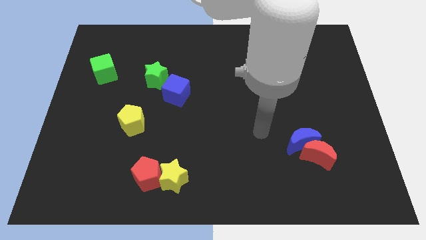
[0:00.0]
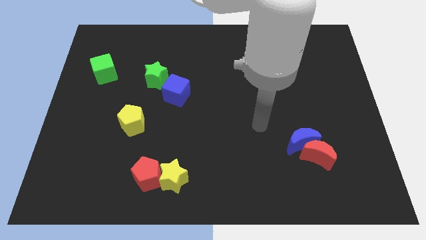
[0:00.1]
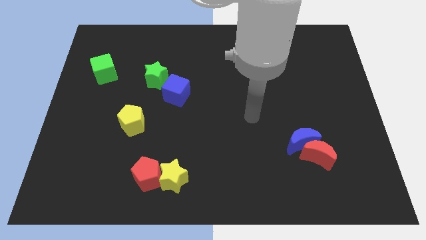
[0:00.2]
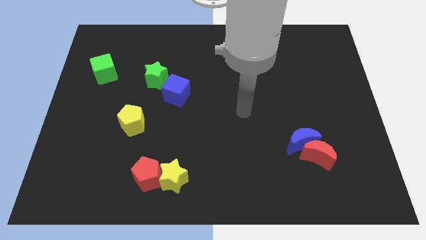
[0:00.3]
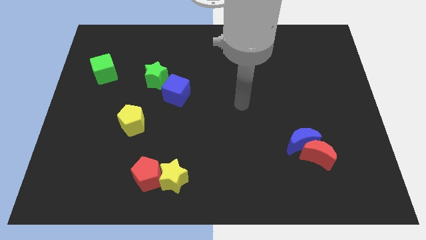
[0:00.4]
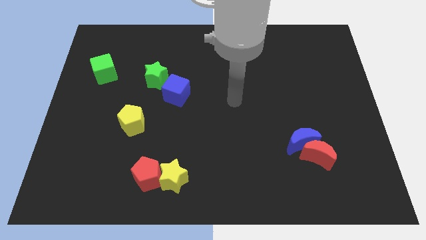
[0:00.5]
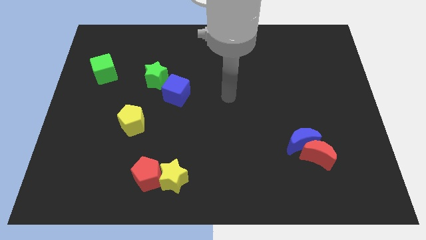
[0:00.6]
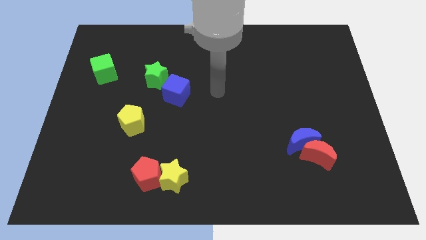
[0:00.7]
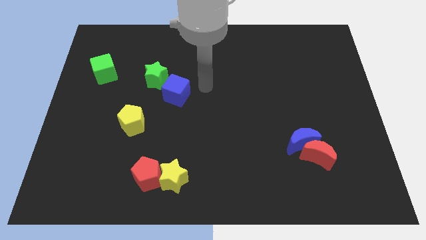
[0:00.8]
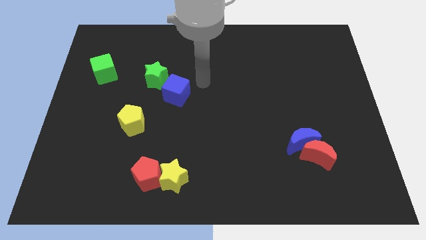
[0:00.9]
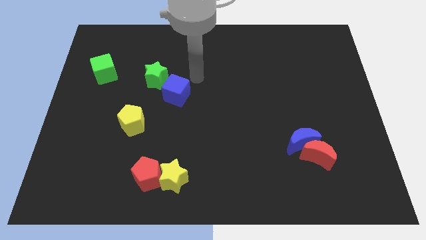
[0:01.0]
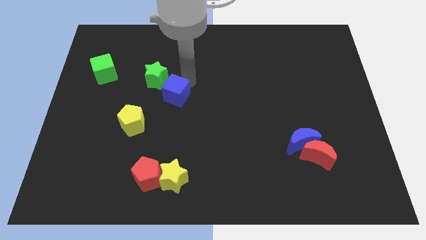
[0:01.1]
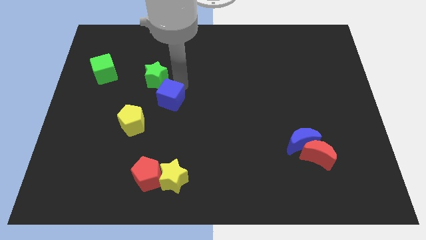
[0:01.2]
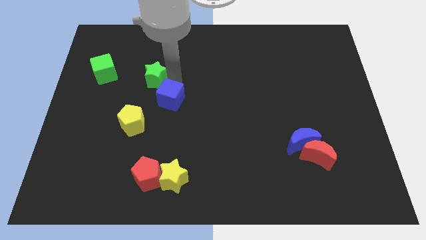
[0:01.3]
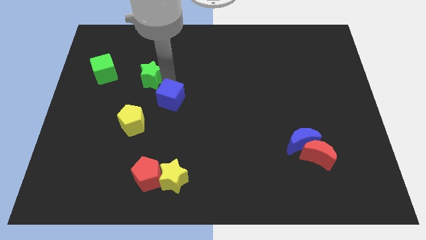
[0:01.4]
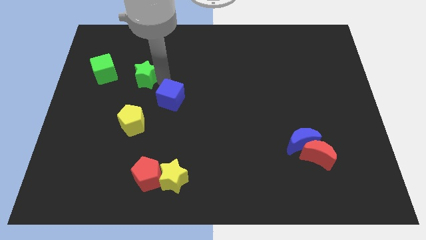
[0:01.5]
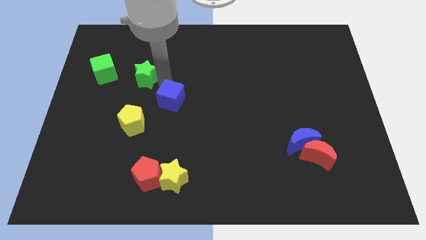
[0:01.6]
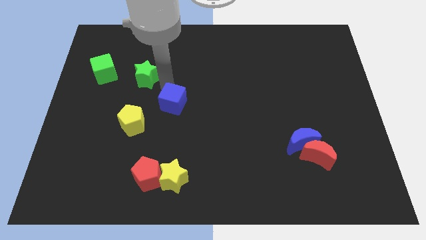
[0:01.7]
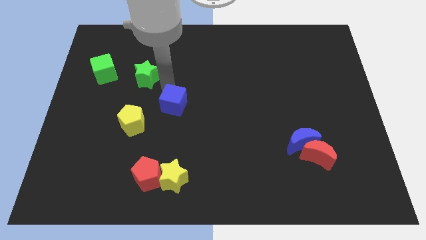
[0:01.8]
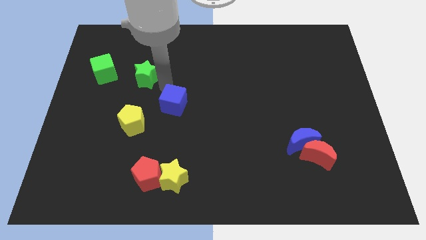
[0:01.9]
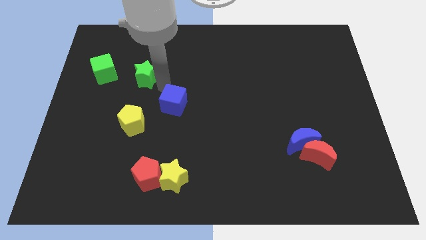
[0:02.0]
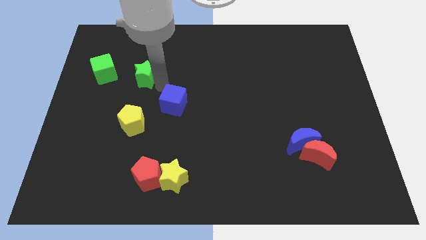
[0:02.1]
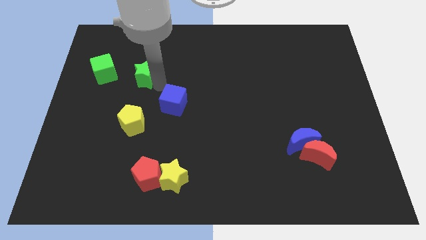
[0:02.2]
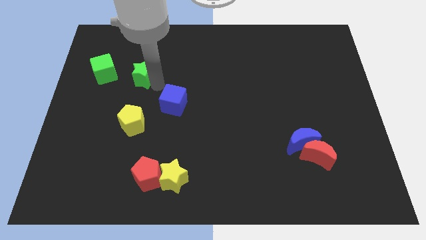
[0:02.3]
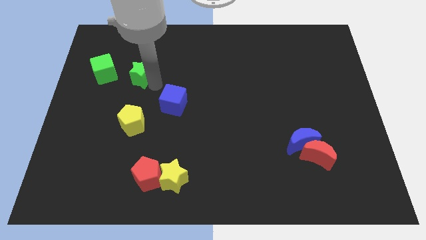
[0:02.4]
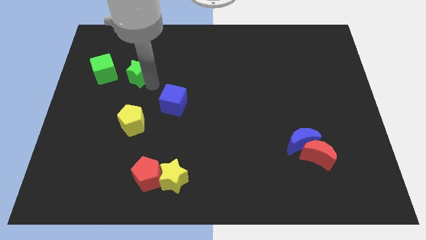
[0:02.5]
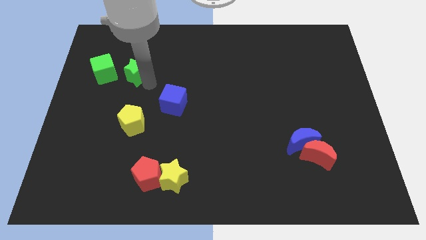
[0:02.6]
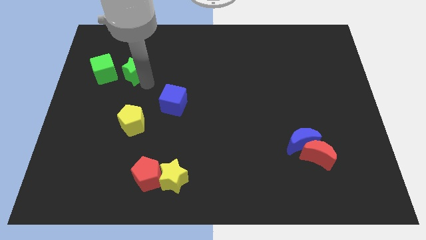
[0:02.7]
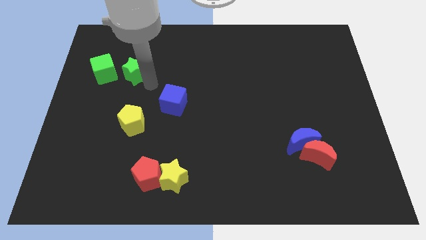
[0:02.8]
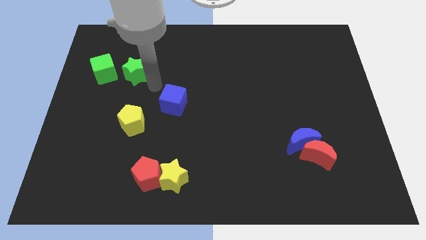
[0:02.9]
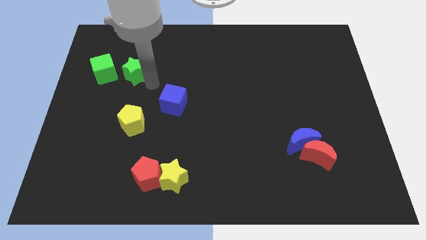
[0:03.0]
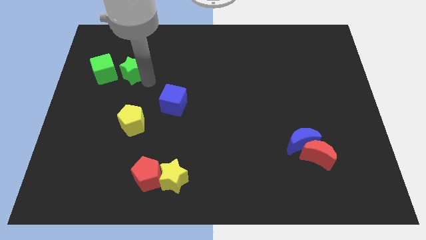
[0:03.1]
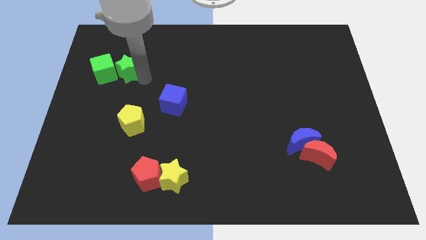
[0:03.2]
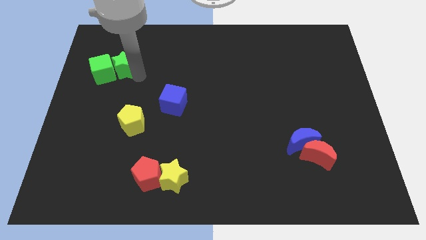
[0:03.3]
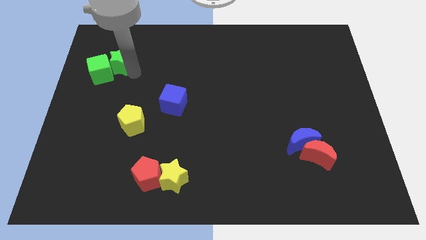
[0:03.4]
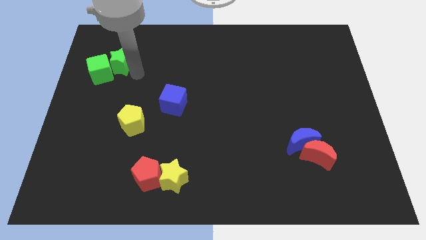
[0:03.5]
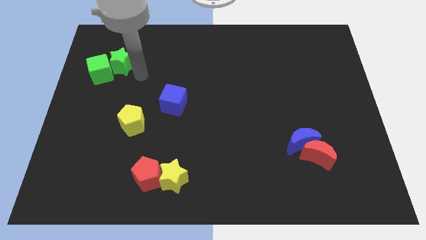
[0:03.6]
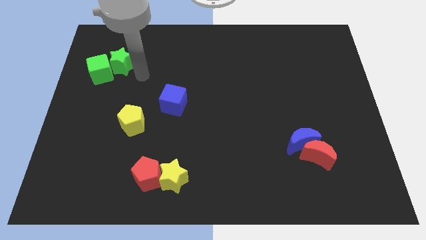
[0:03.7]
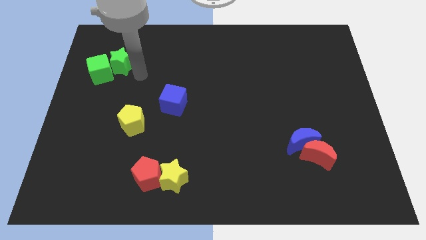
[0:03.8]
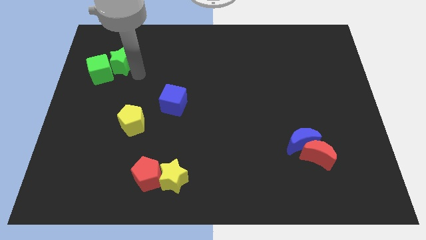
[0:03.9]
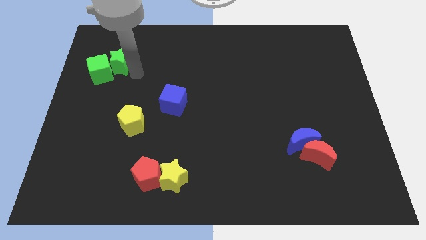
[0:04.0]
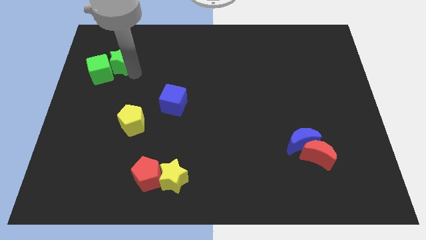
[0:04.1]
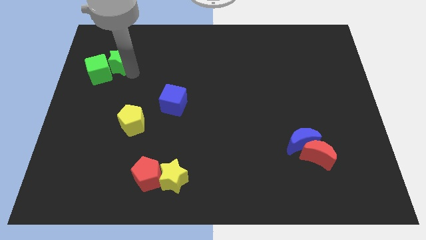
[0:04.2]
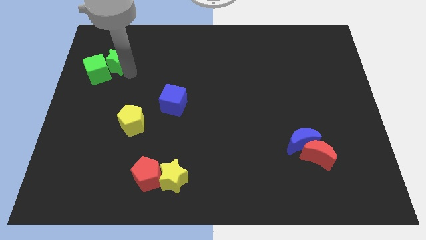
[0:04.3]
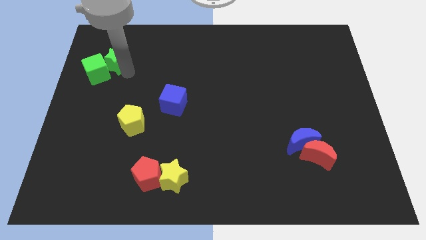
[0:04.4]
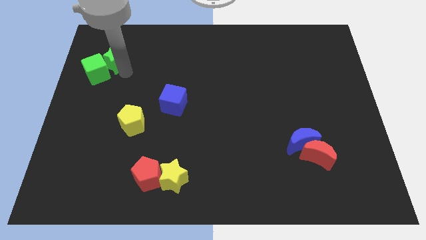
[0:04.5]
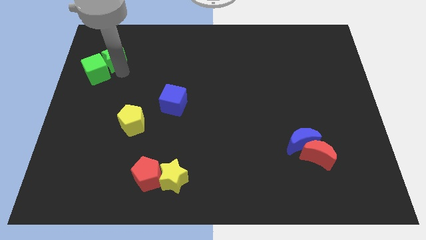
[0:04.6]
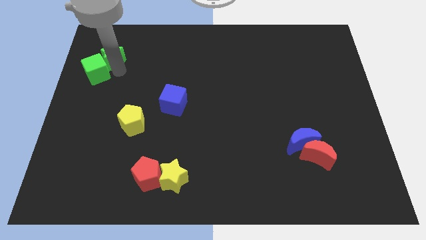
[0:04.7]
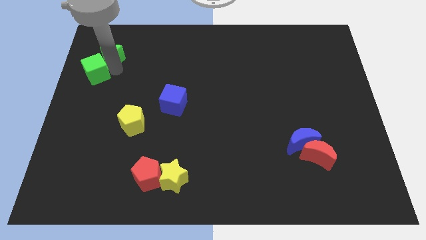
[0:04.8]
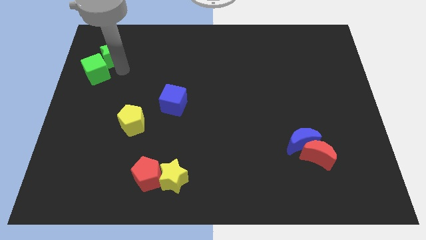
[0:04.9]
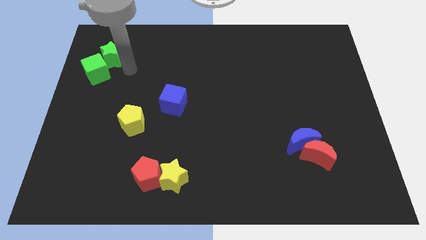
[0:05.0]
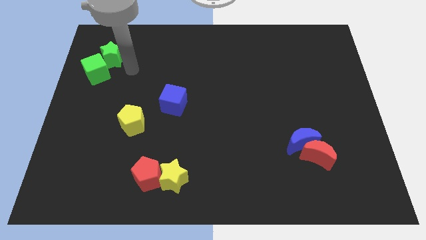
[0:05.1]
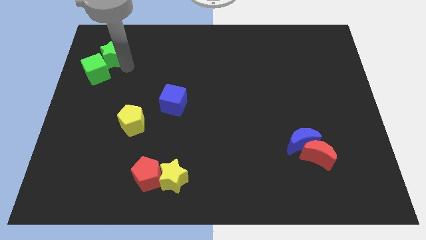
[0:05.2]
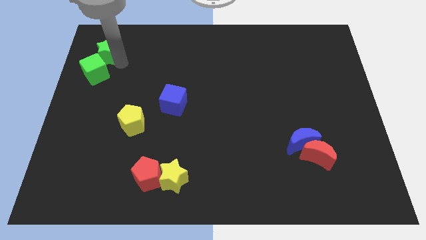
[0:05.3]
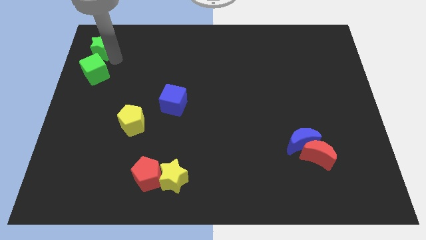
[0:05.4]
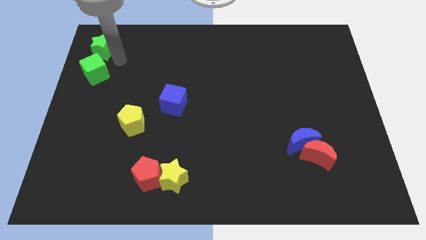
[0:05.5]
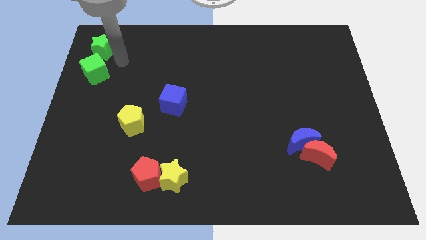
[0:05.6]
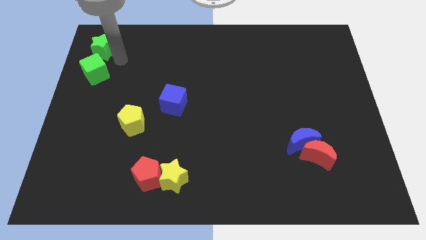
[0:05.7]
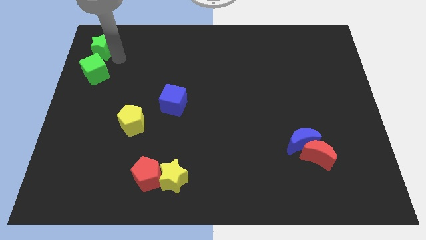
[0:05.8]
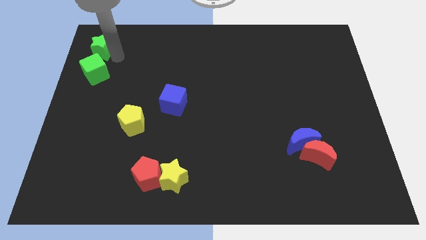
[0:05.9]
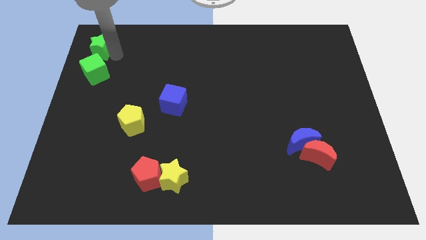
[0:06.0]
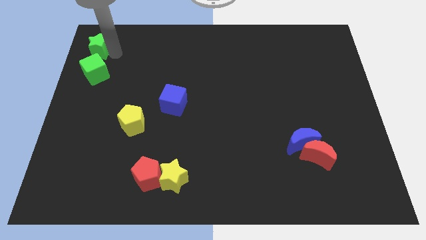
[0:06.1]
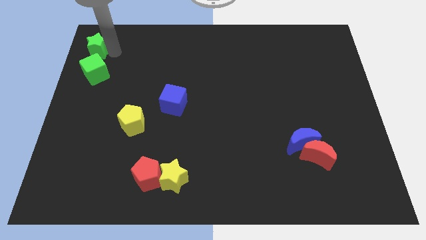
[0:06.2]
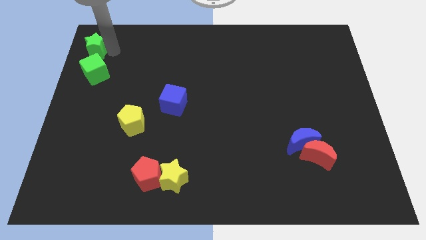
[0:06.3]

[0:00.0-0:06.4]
move the green star to the top left
